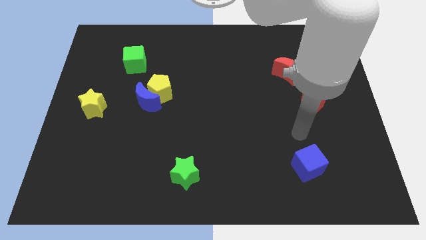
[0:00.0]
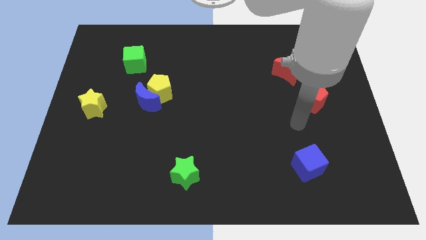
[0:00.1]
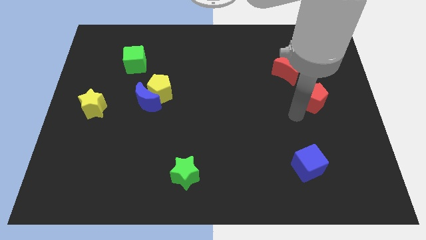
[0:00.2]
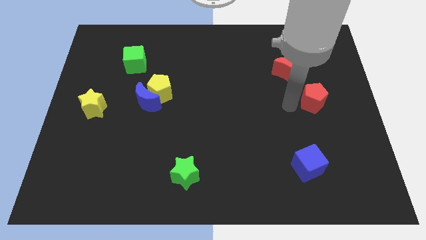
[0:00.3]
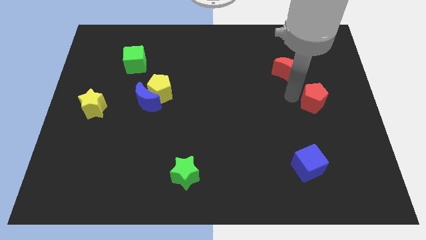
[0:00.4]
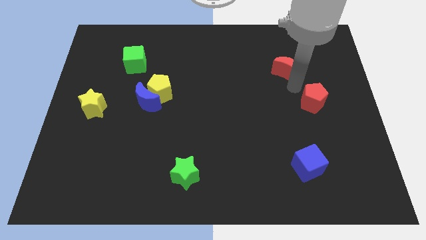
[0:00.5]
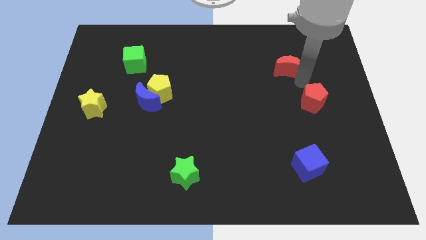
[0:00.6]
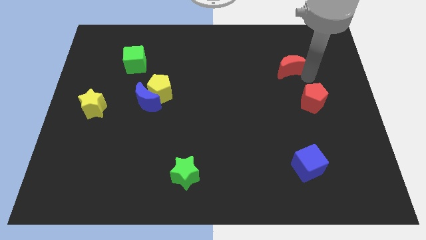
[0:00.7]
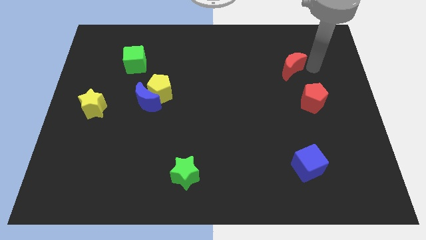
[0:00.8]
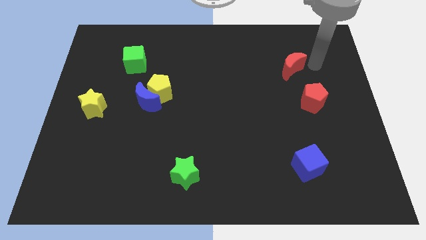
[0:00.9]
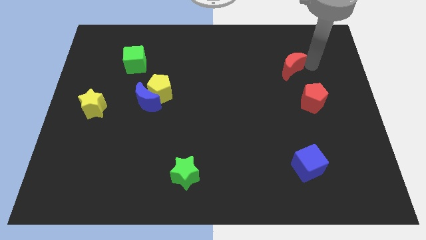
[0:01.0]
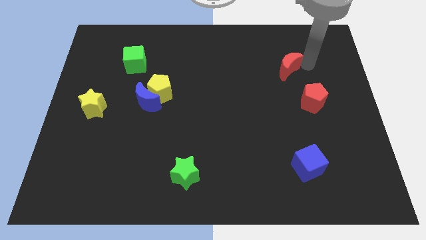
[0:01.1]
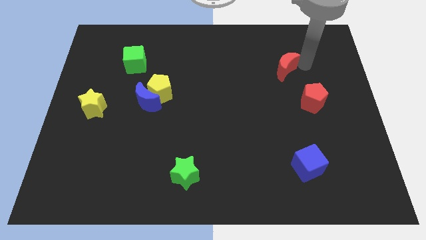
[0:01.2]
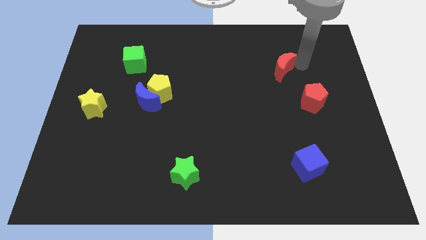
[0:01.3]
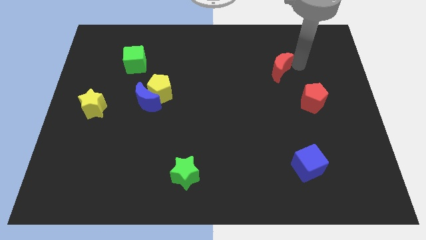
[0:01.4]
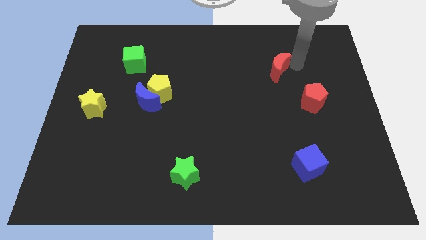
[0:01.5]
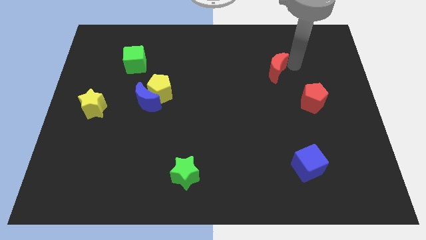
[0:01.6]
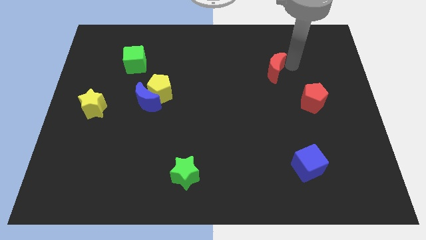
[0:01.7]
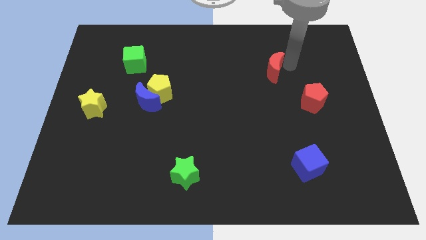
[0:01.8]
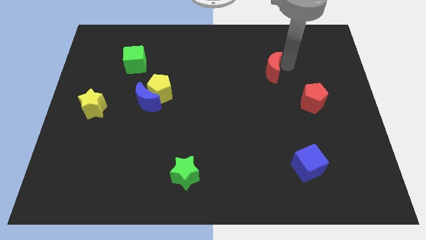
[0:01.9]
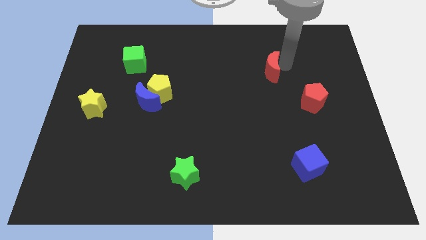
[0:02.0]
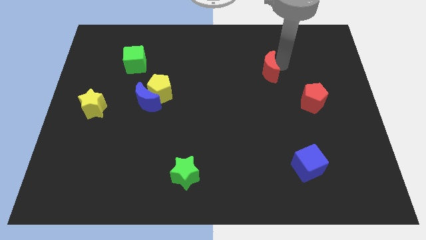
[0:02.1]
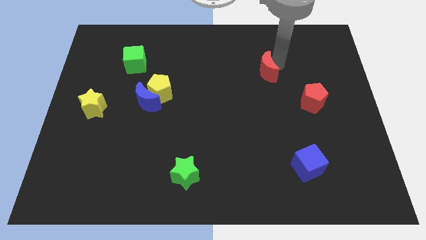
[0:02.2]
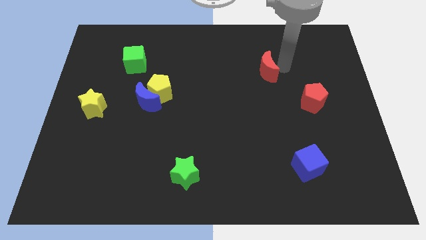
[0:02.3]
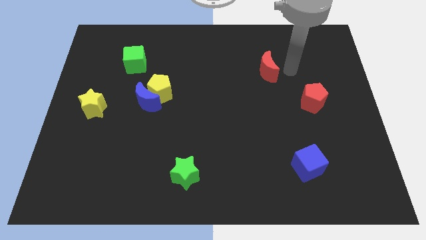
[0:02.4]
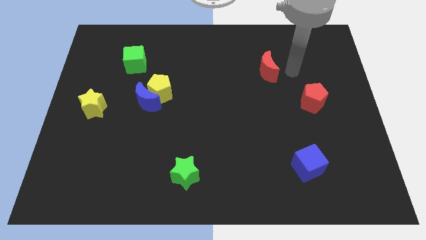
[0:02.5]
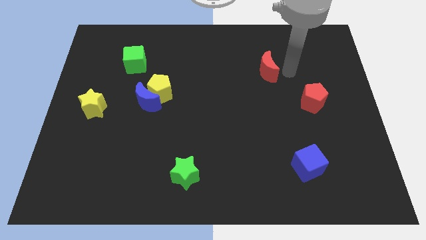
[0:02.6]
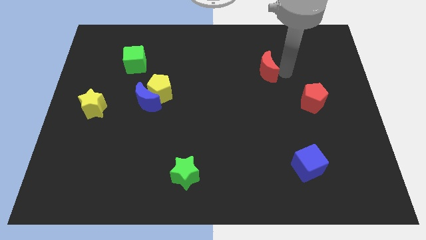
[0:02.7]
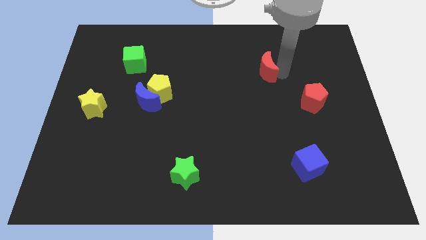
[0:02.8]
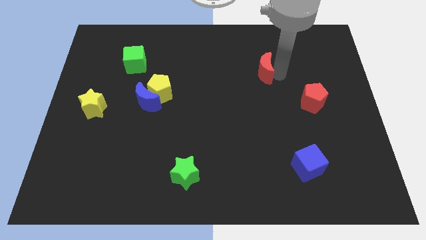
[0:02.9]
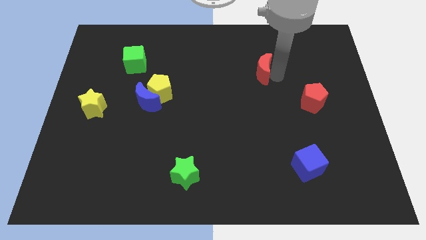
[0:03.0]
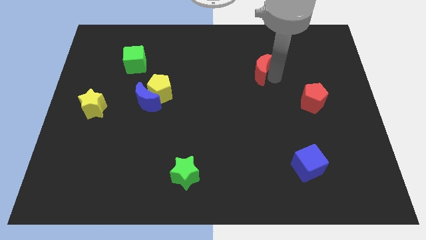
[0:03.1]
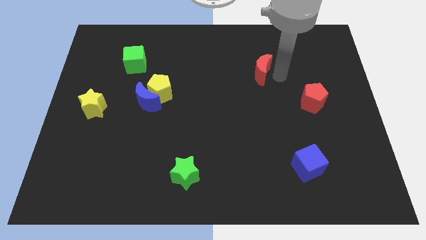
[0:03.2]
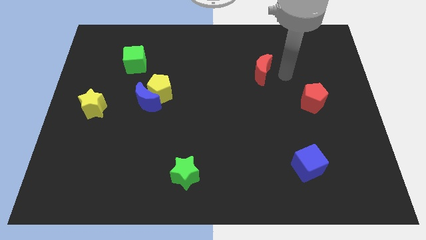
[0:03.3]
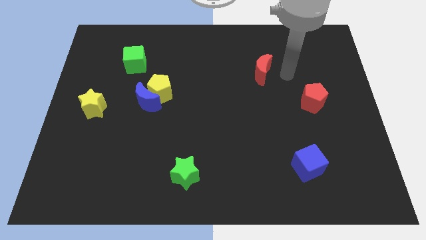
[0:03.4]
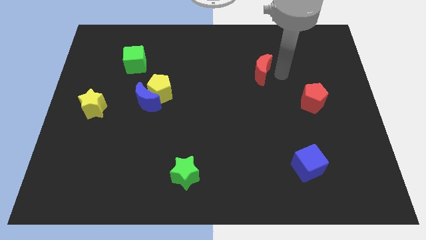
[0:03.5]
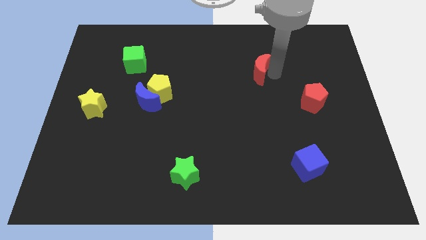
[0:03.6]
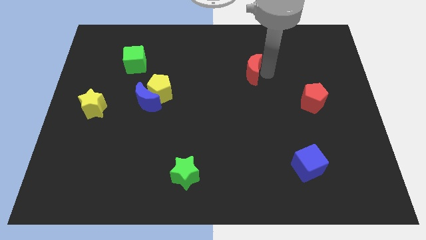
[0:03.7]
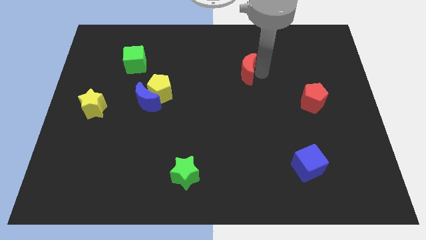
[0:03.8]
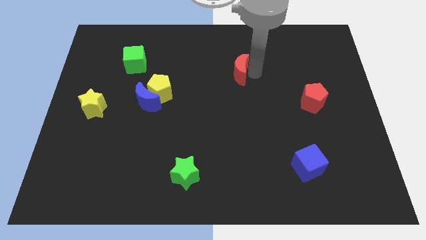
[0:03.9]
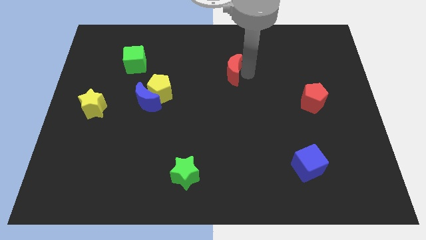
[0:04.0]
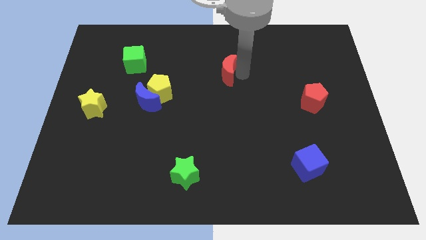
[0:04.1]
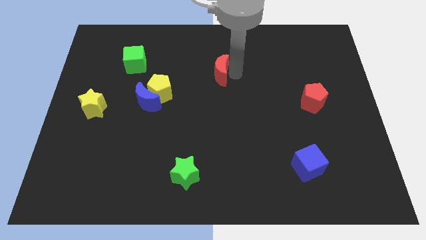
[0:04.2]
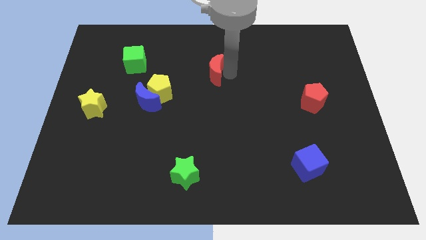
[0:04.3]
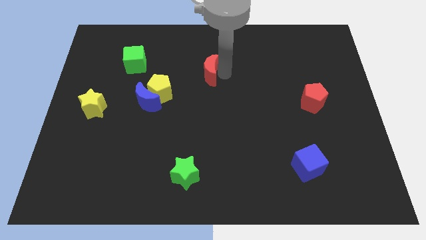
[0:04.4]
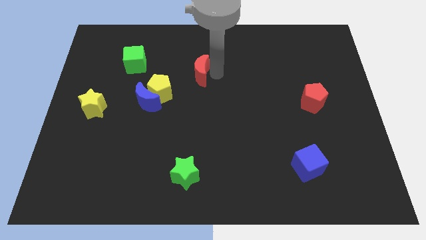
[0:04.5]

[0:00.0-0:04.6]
push the red moon to the left

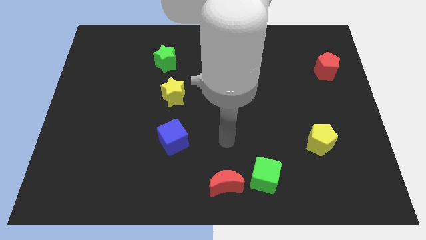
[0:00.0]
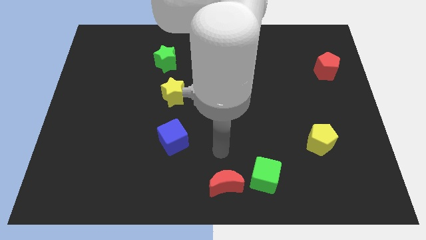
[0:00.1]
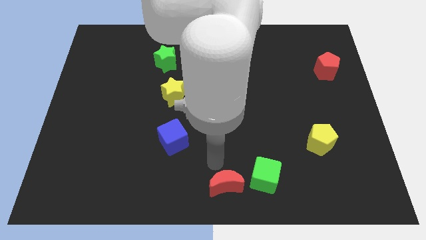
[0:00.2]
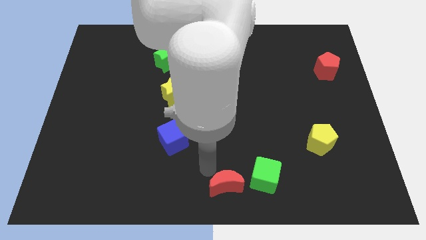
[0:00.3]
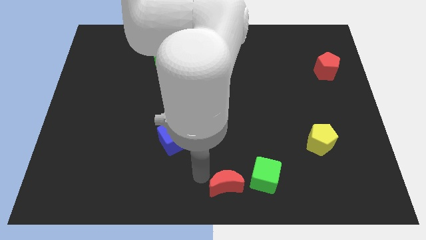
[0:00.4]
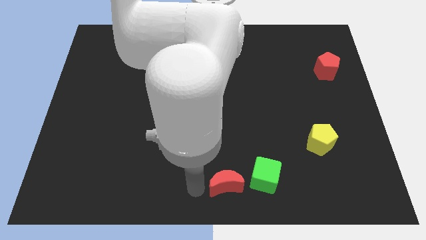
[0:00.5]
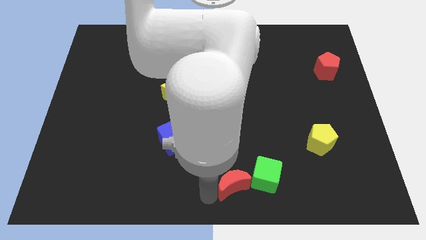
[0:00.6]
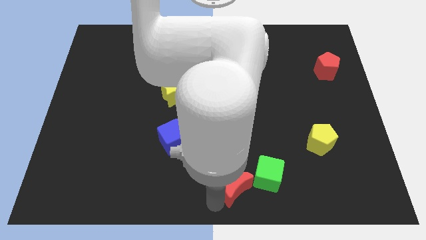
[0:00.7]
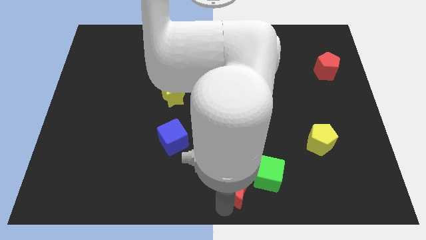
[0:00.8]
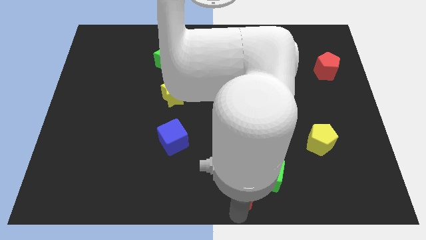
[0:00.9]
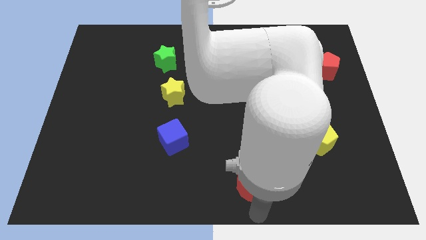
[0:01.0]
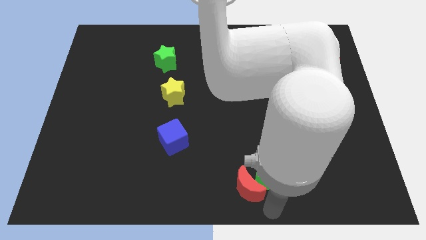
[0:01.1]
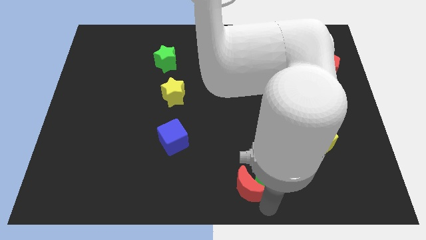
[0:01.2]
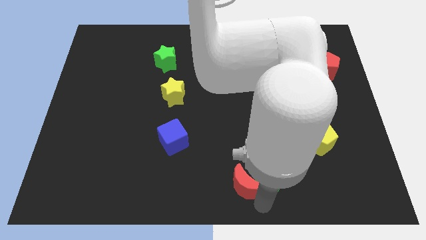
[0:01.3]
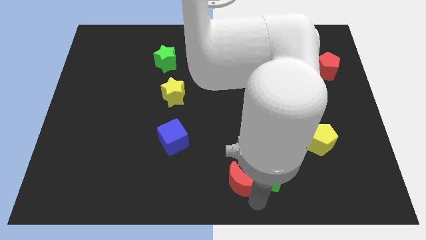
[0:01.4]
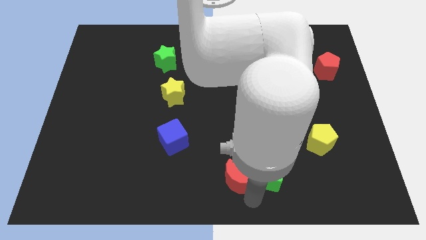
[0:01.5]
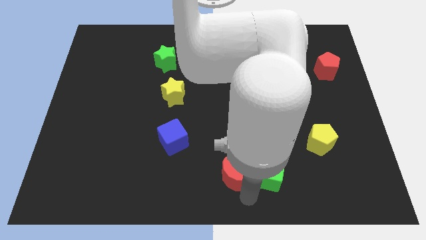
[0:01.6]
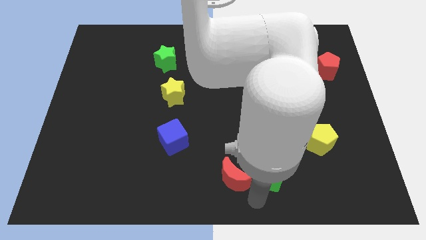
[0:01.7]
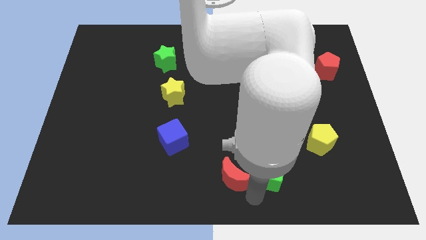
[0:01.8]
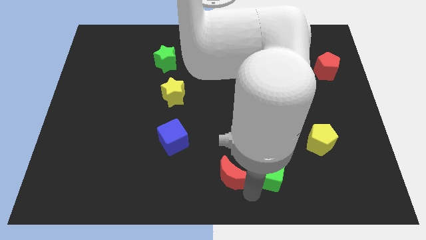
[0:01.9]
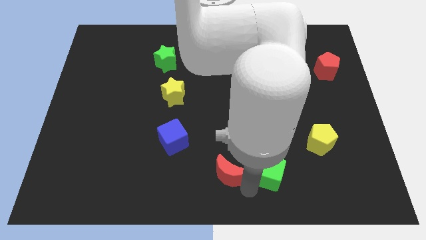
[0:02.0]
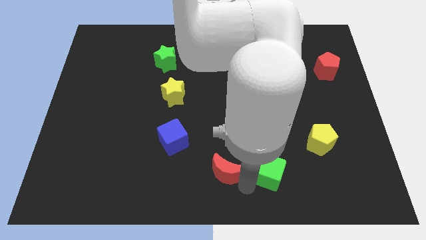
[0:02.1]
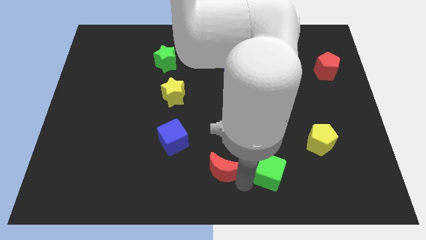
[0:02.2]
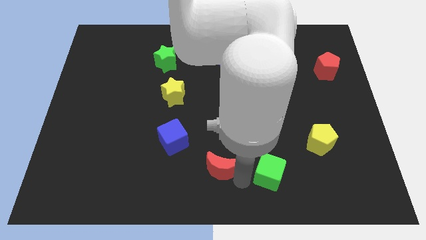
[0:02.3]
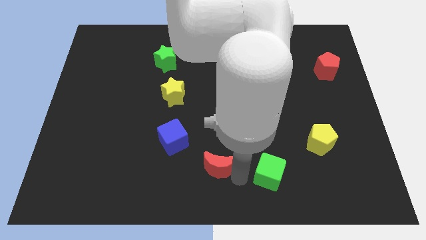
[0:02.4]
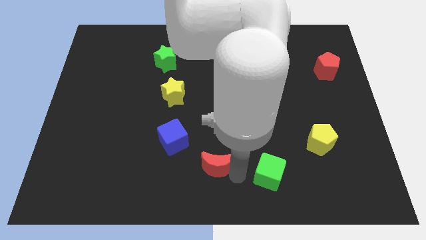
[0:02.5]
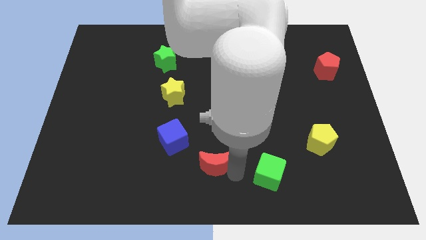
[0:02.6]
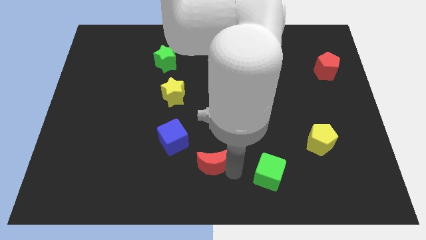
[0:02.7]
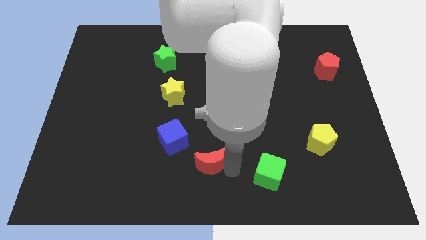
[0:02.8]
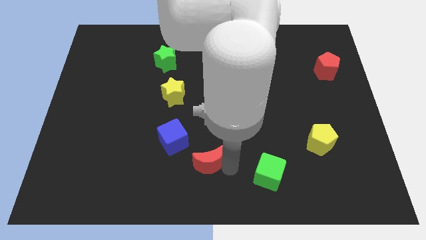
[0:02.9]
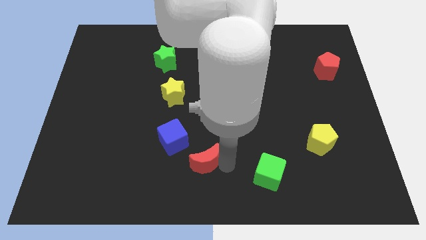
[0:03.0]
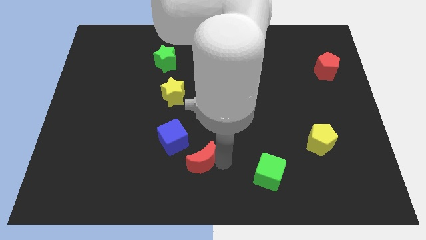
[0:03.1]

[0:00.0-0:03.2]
push the red moon slightly upwards and left

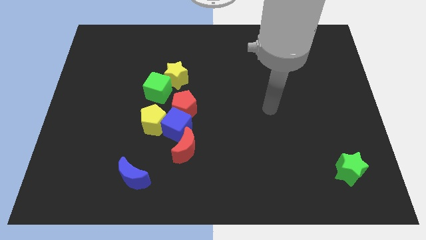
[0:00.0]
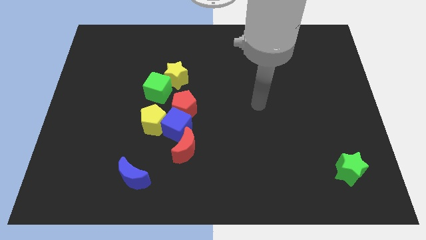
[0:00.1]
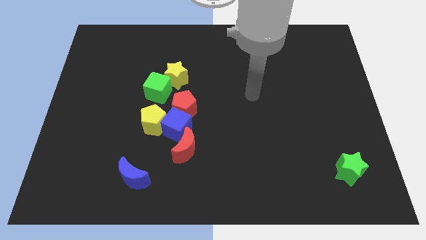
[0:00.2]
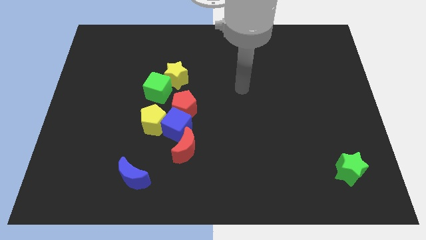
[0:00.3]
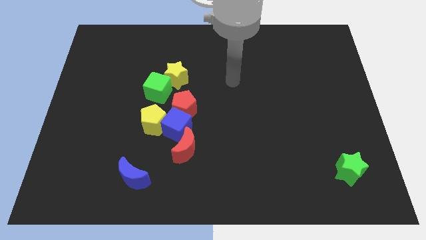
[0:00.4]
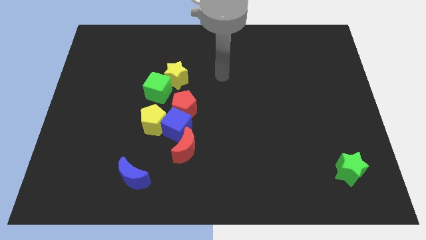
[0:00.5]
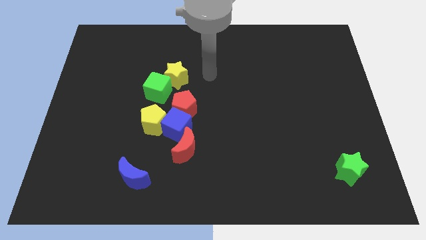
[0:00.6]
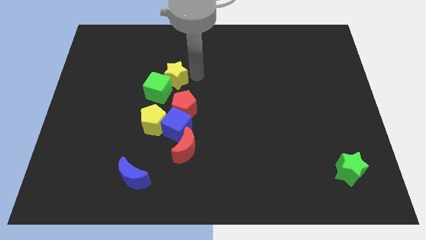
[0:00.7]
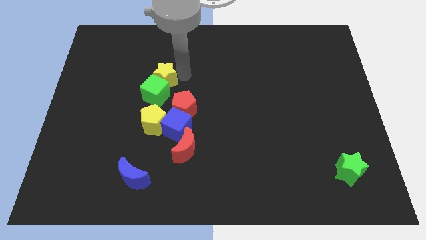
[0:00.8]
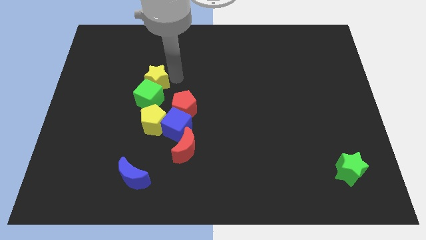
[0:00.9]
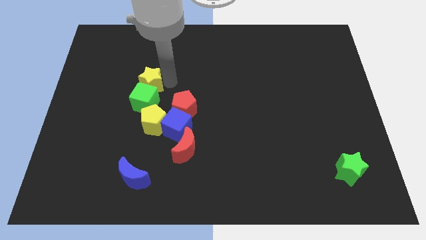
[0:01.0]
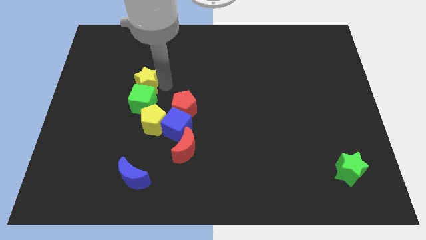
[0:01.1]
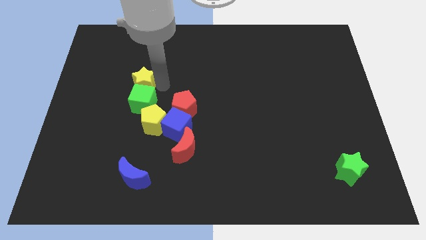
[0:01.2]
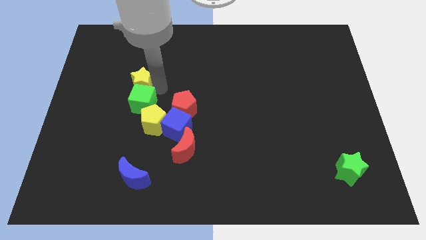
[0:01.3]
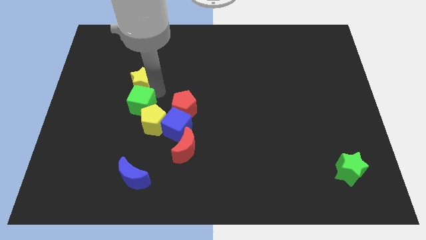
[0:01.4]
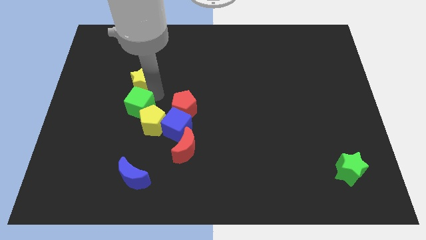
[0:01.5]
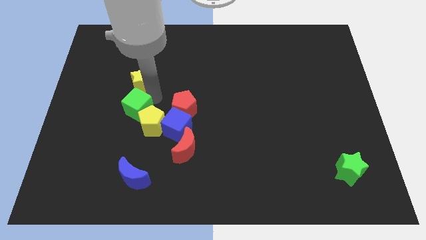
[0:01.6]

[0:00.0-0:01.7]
slightly move the green cube diagonally down and to the left
